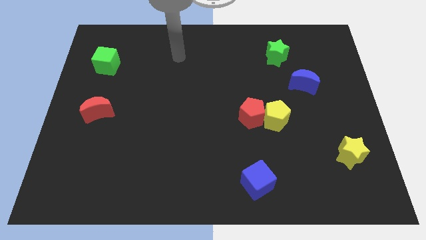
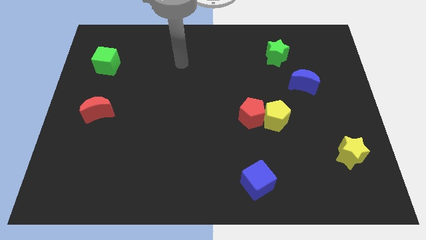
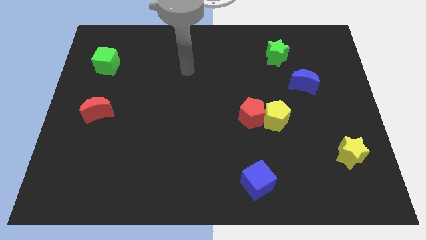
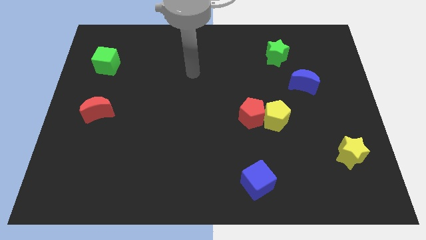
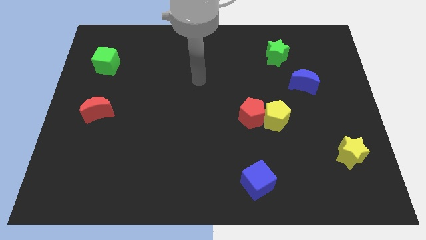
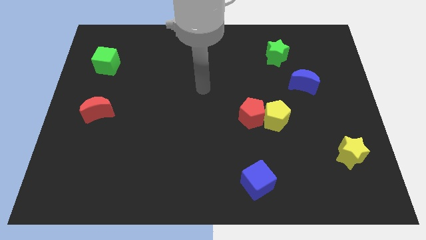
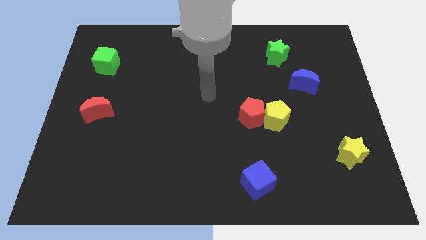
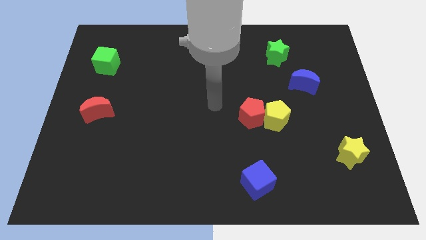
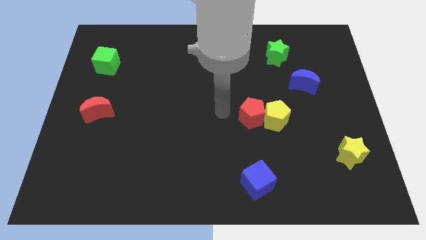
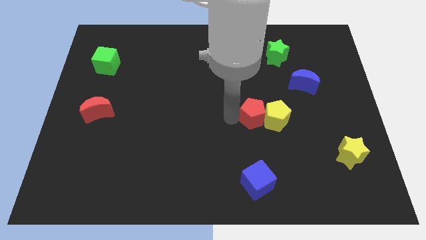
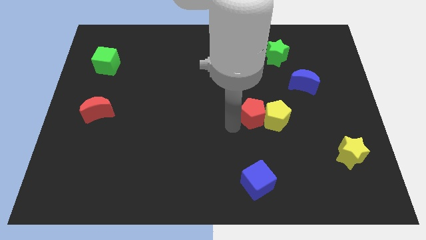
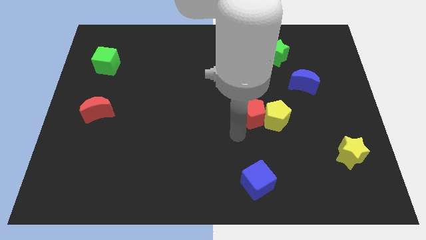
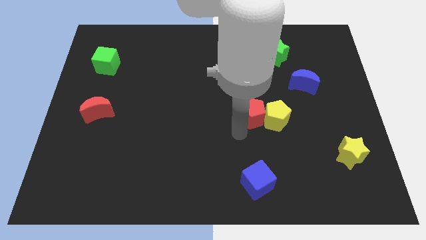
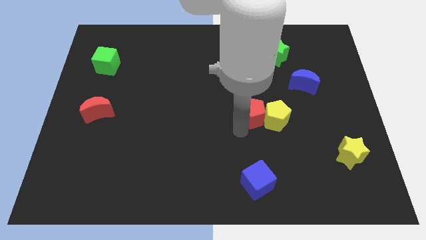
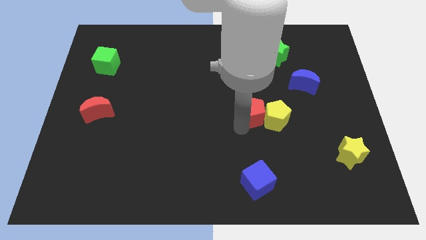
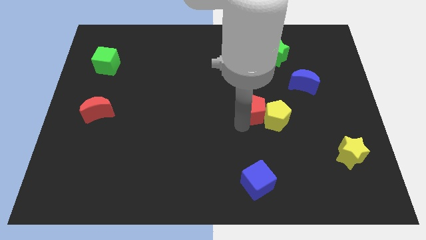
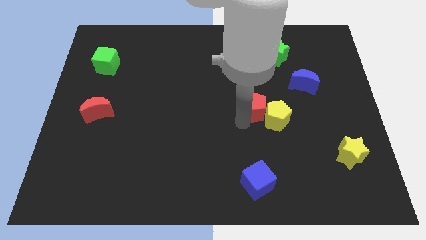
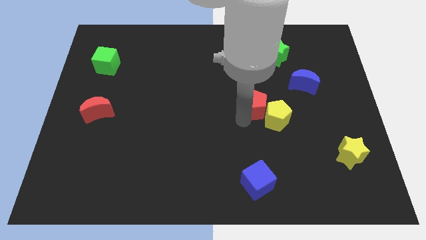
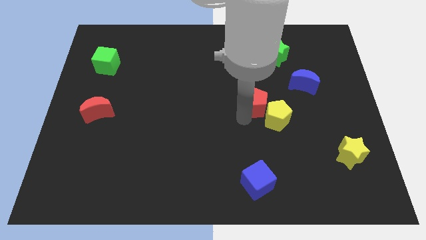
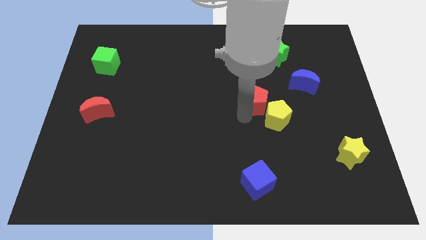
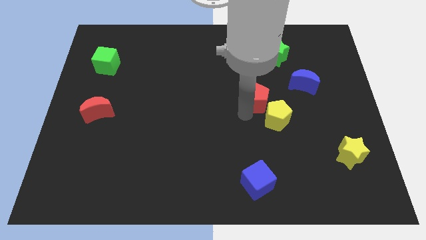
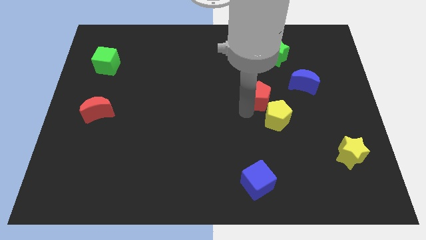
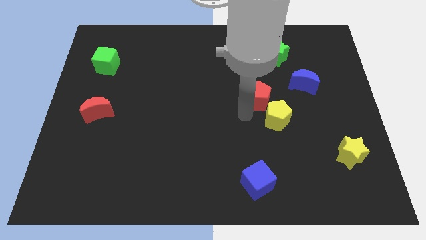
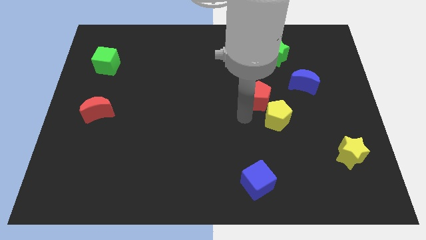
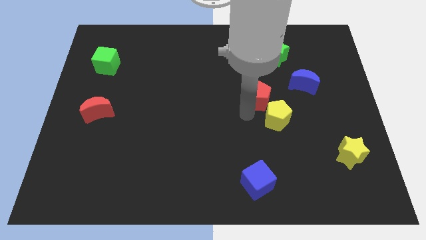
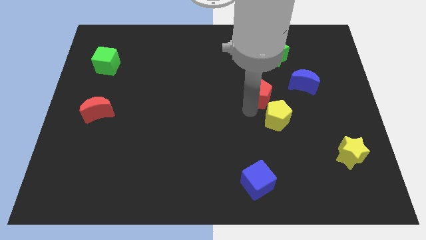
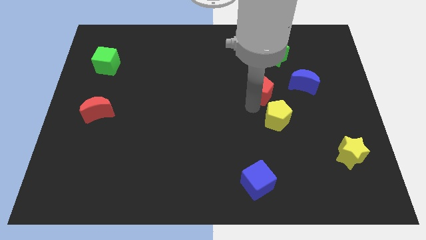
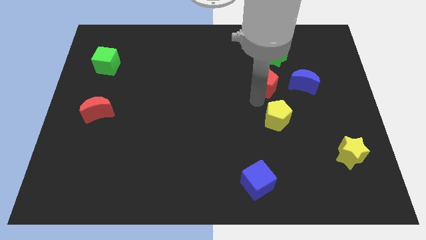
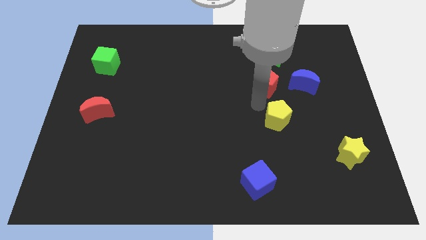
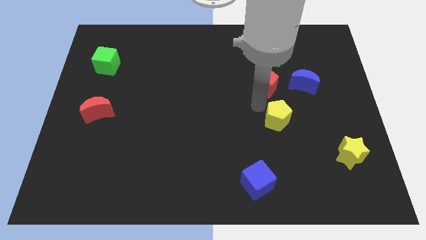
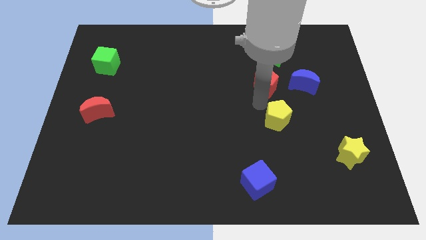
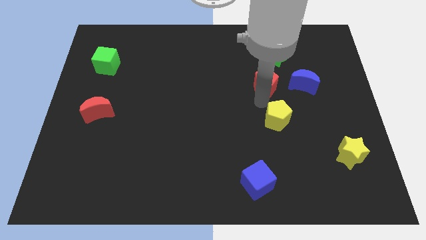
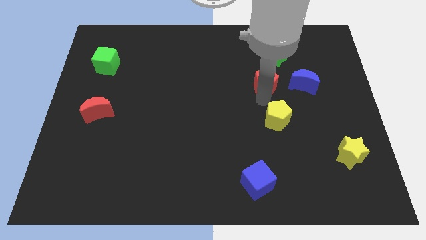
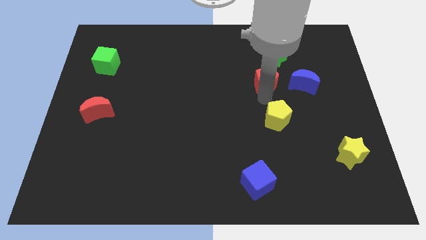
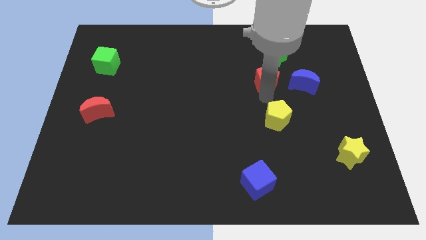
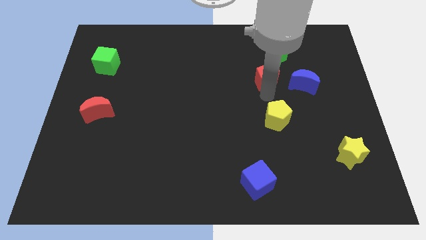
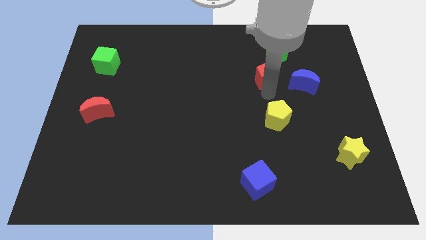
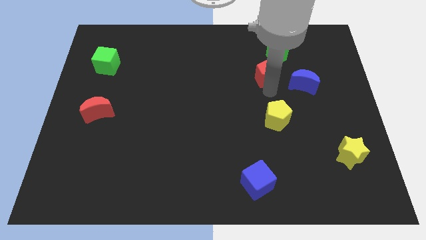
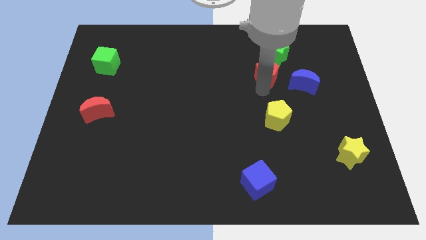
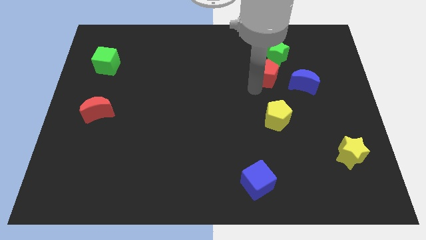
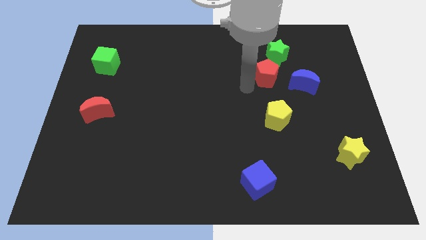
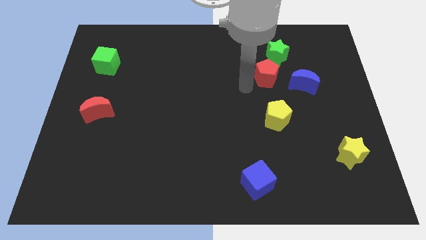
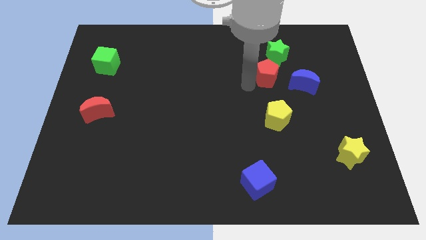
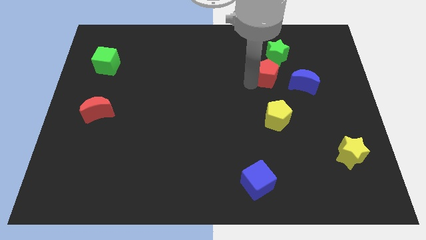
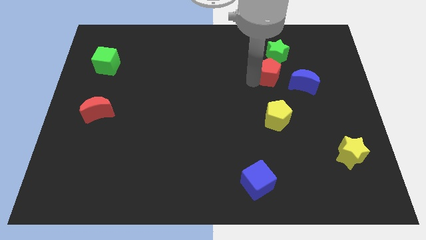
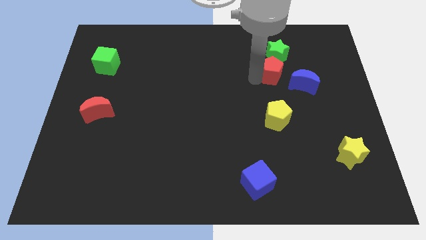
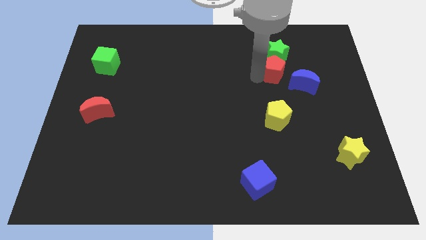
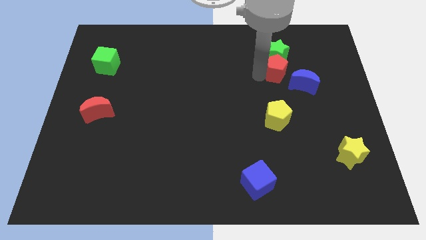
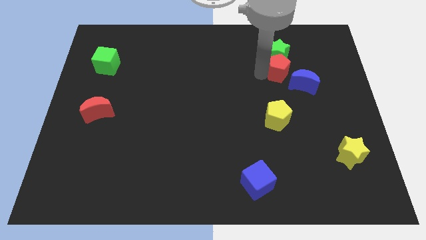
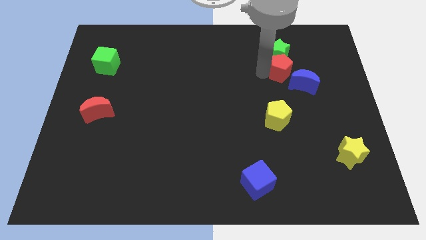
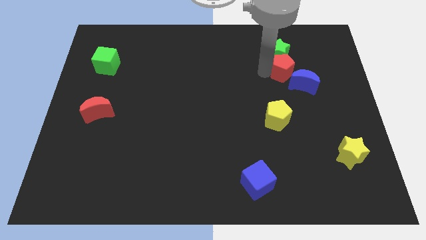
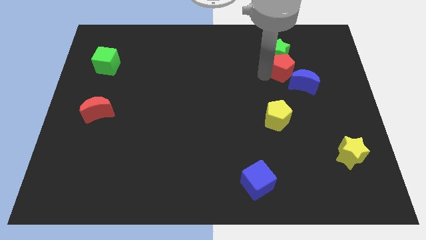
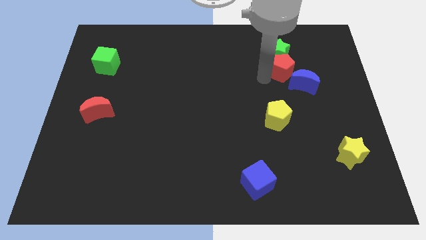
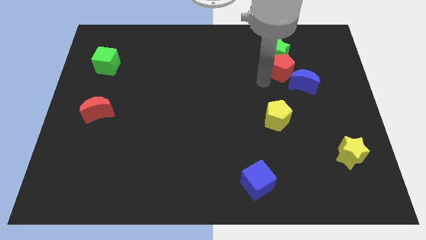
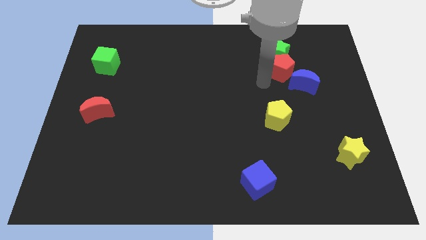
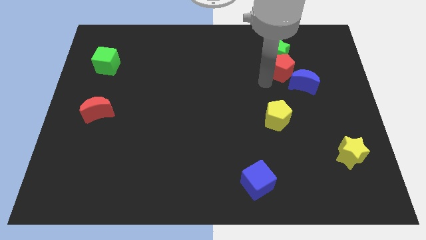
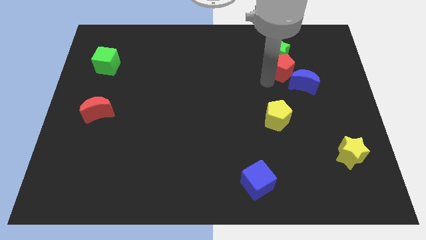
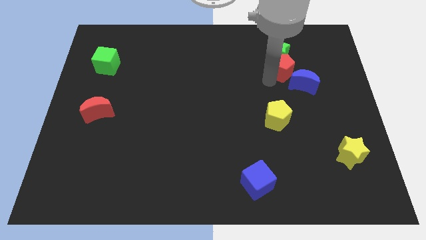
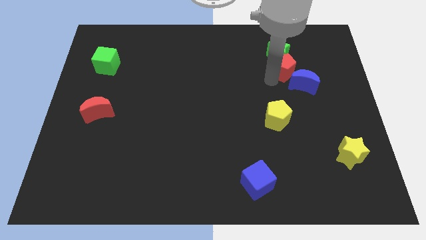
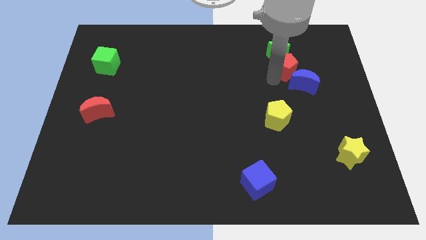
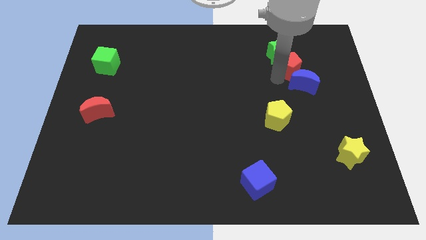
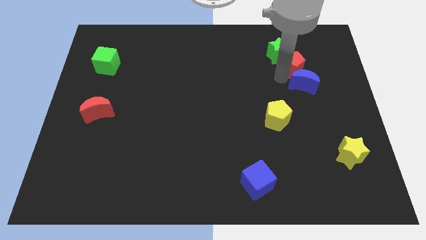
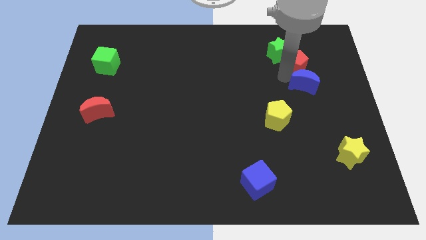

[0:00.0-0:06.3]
move the red pentagon to the right of the green star
